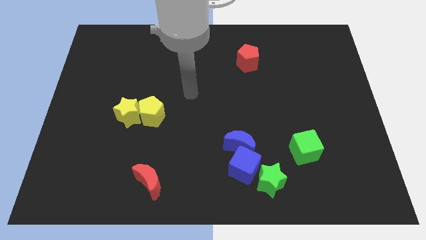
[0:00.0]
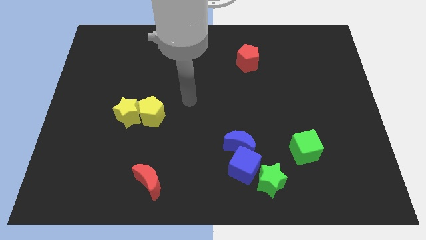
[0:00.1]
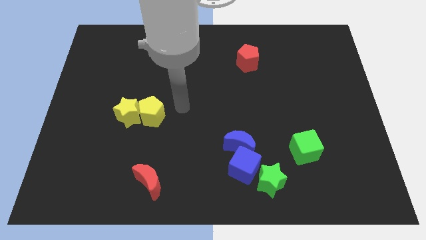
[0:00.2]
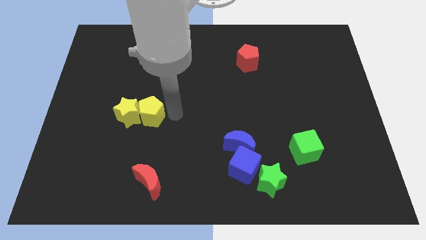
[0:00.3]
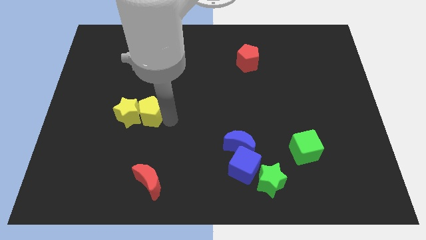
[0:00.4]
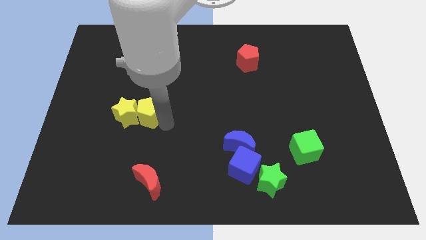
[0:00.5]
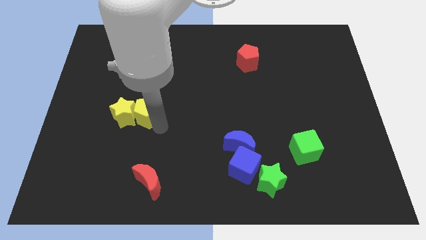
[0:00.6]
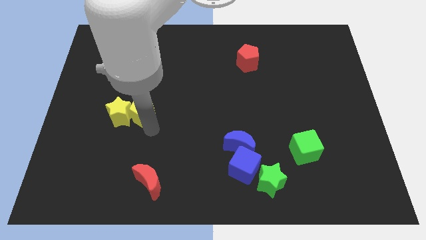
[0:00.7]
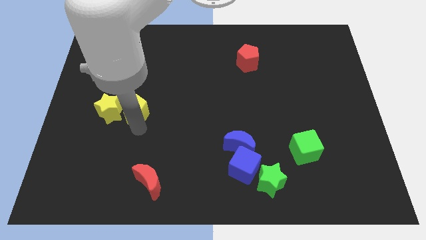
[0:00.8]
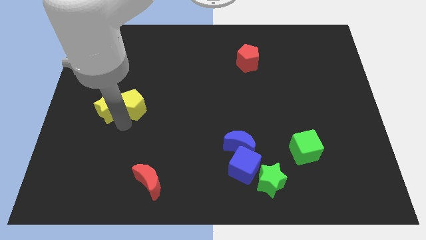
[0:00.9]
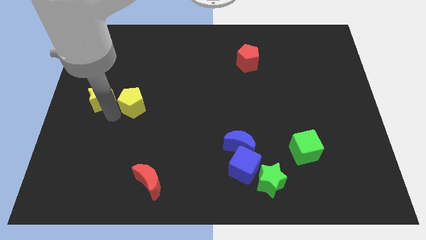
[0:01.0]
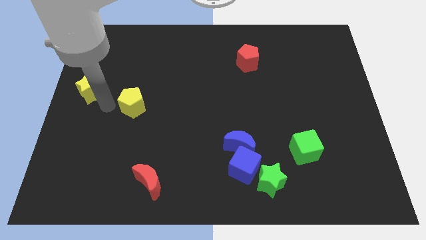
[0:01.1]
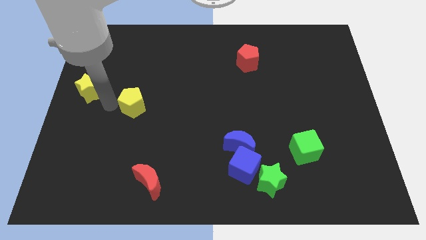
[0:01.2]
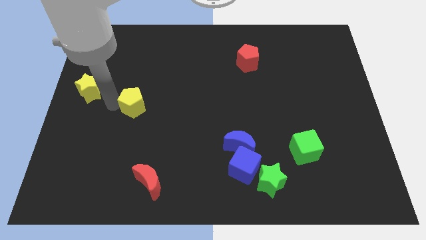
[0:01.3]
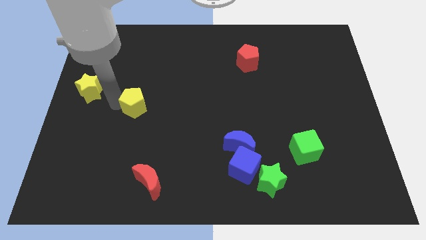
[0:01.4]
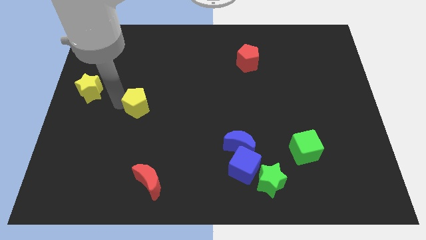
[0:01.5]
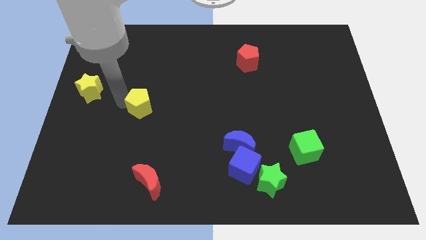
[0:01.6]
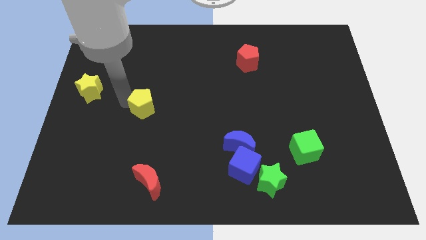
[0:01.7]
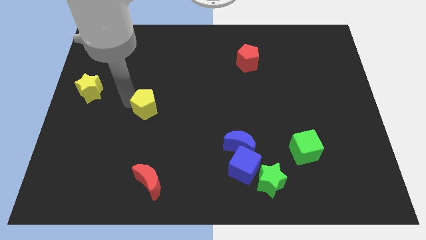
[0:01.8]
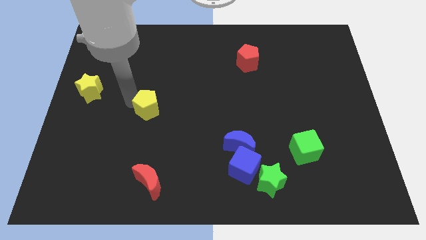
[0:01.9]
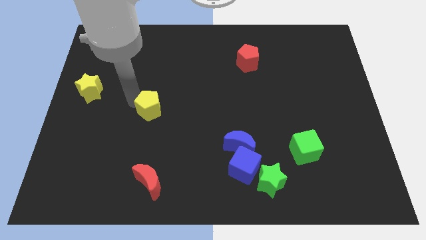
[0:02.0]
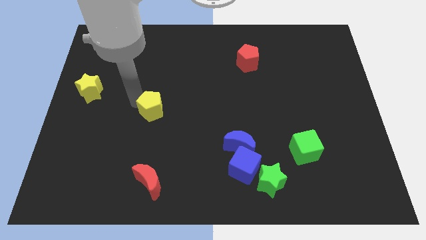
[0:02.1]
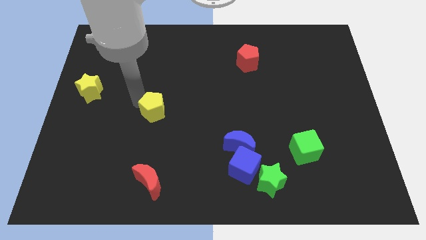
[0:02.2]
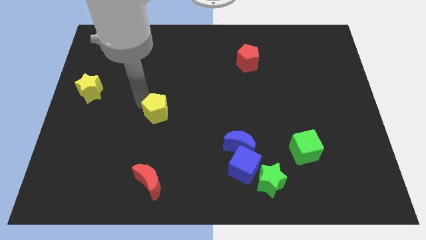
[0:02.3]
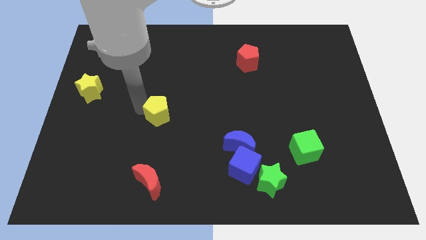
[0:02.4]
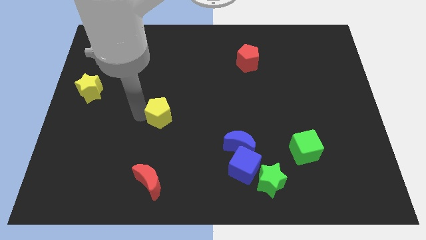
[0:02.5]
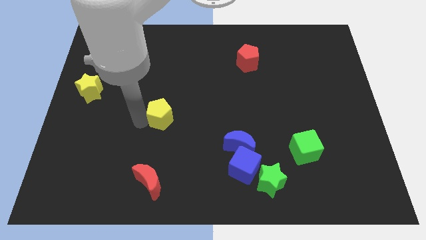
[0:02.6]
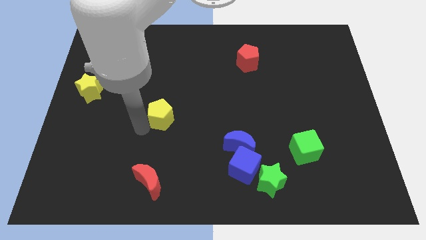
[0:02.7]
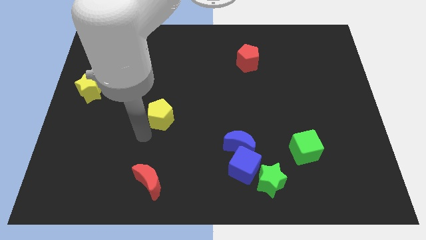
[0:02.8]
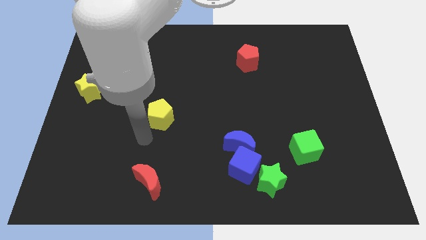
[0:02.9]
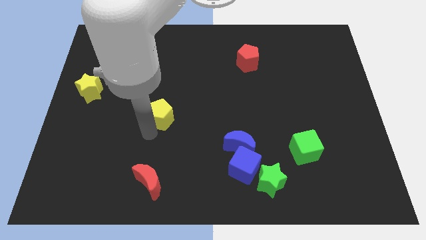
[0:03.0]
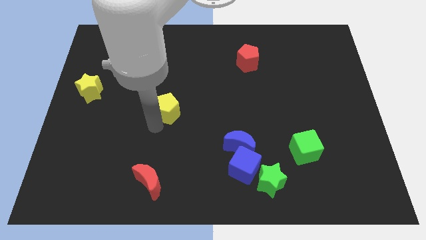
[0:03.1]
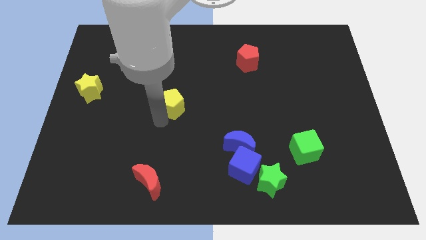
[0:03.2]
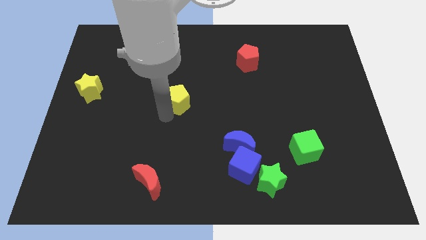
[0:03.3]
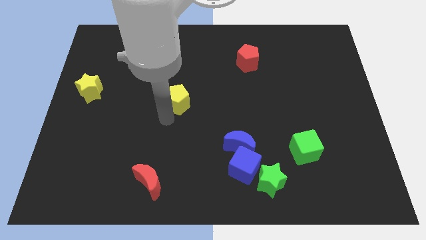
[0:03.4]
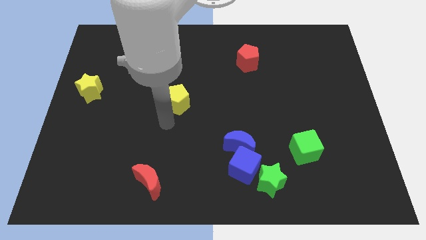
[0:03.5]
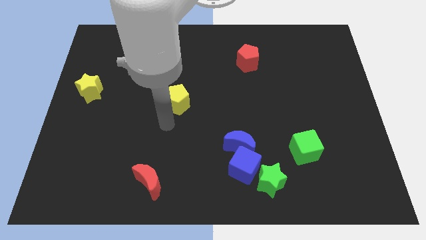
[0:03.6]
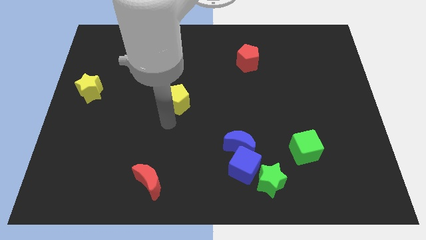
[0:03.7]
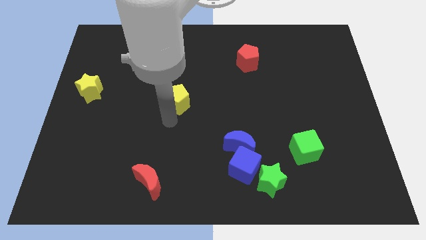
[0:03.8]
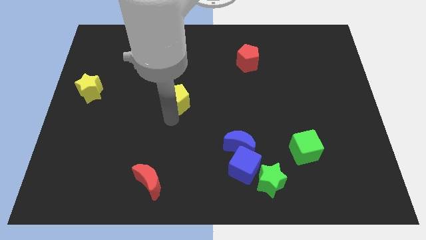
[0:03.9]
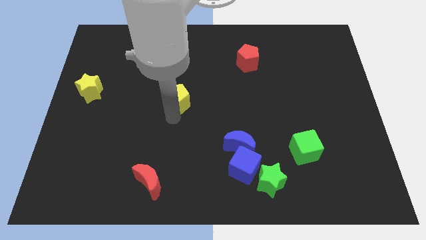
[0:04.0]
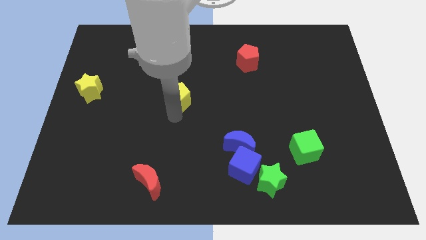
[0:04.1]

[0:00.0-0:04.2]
push the yellow pentagon slightly up and right

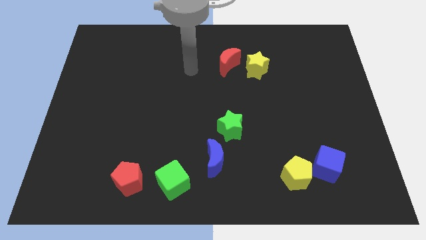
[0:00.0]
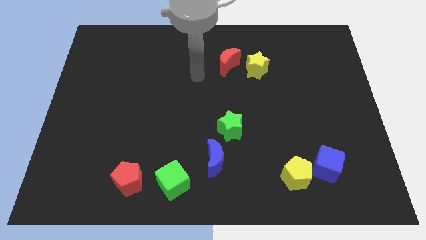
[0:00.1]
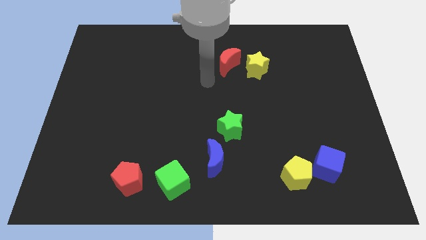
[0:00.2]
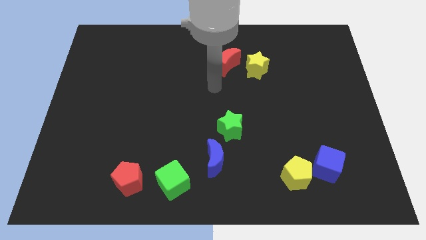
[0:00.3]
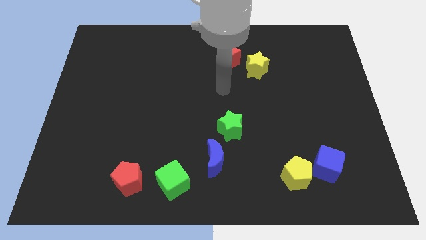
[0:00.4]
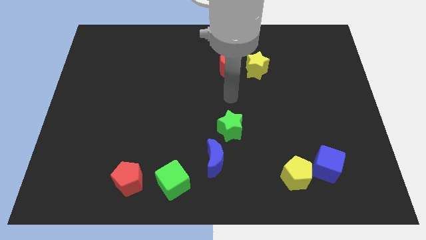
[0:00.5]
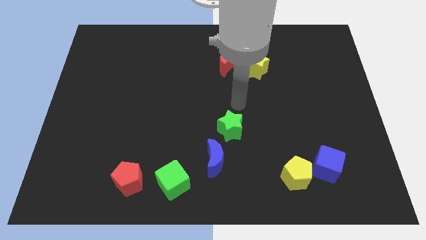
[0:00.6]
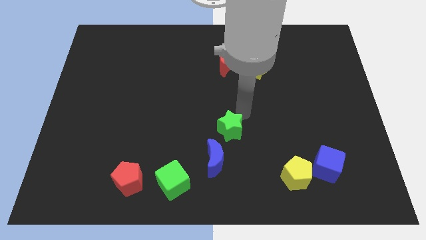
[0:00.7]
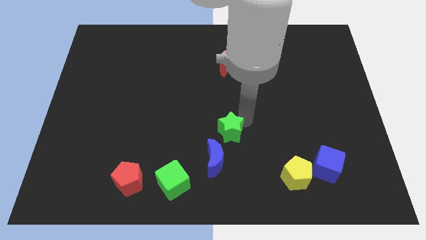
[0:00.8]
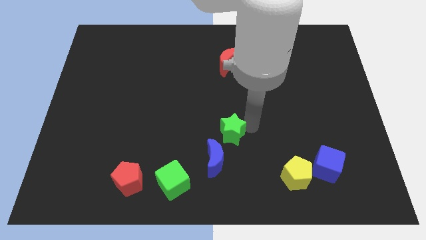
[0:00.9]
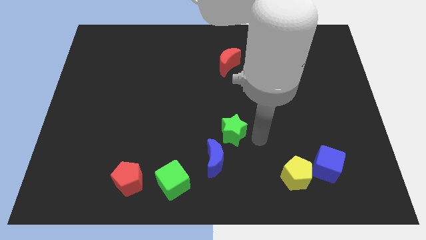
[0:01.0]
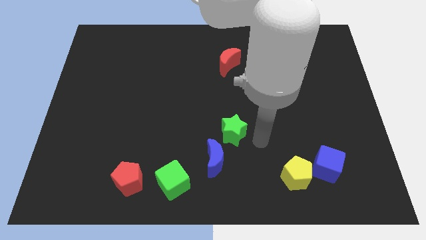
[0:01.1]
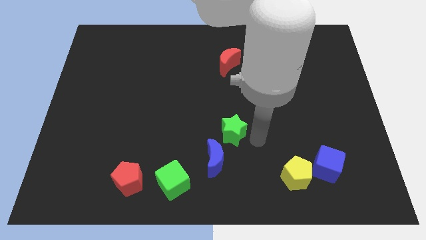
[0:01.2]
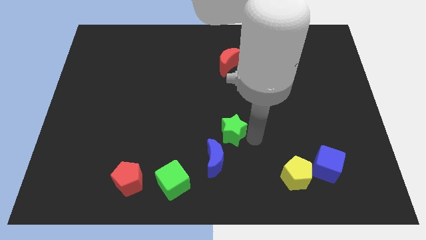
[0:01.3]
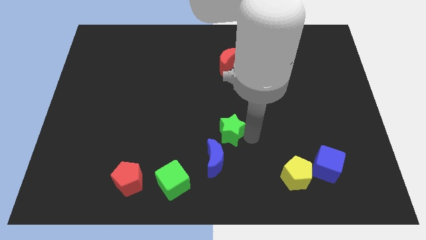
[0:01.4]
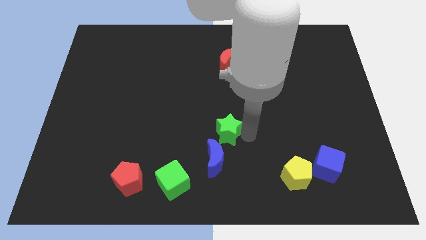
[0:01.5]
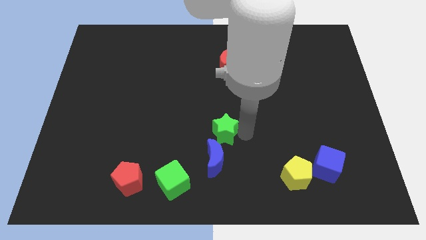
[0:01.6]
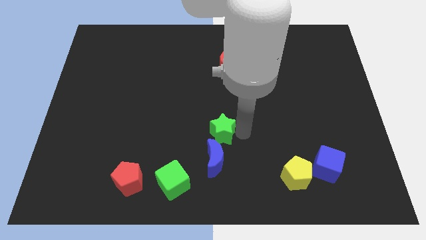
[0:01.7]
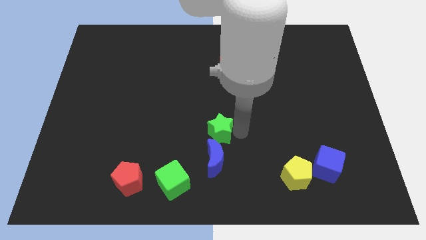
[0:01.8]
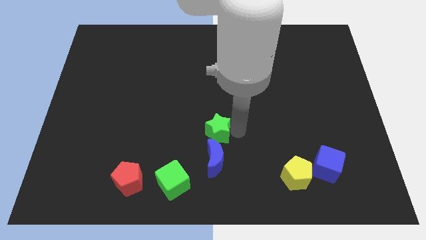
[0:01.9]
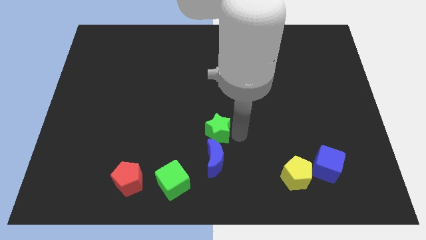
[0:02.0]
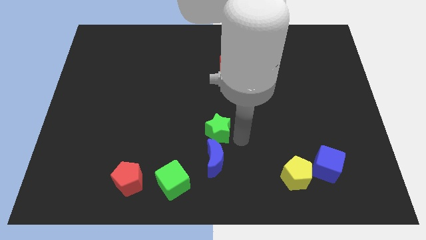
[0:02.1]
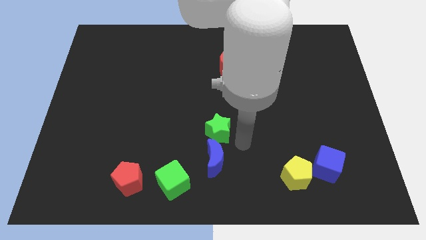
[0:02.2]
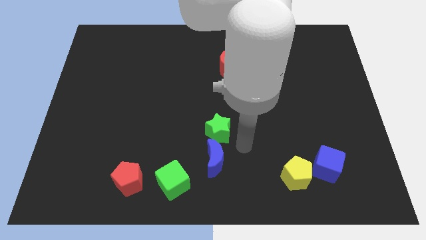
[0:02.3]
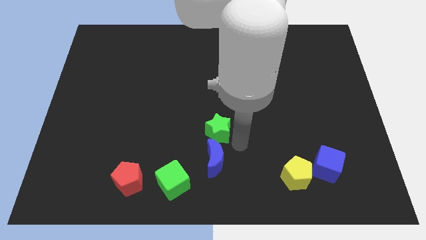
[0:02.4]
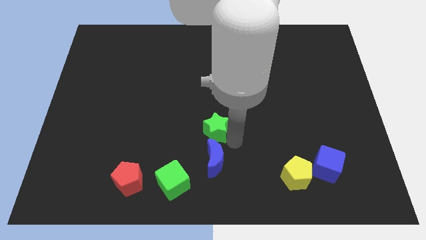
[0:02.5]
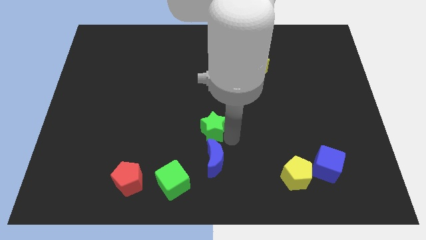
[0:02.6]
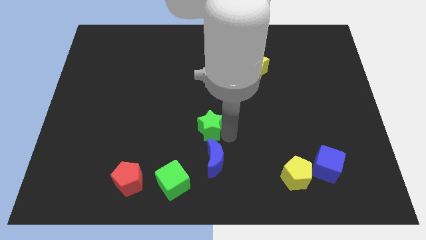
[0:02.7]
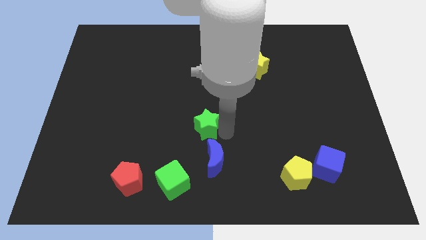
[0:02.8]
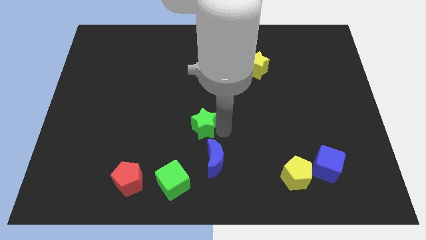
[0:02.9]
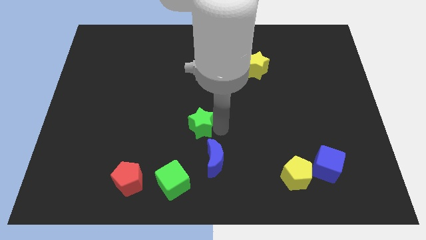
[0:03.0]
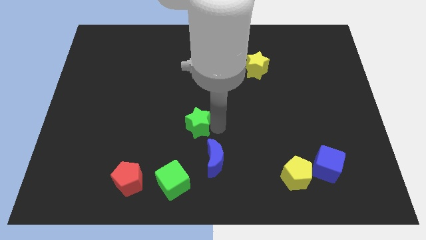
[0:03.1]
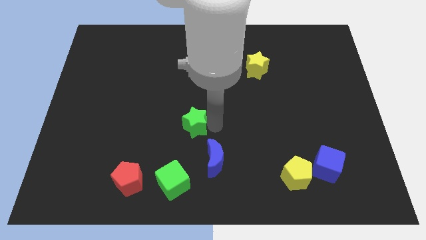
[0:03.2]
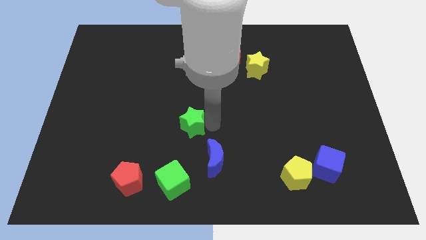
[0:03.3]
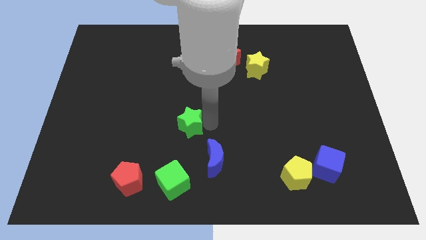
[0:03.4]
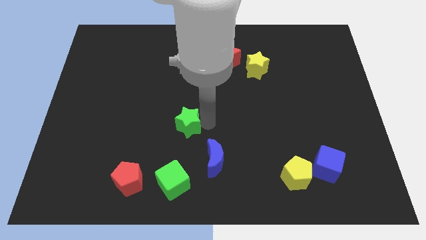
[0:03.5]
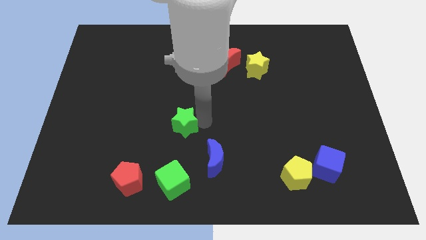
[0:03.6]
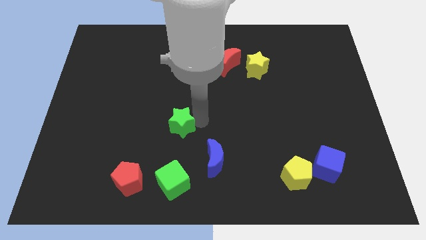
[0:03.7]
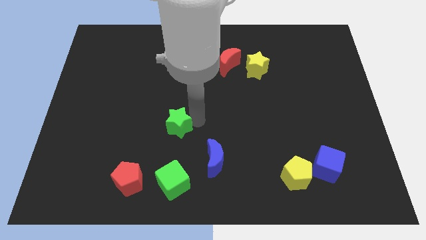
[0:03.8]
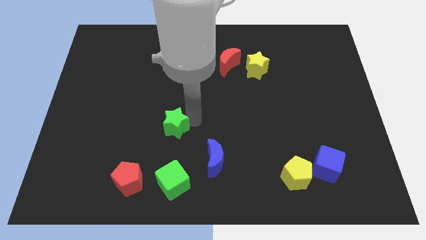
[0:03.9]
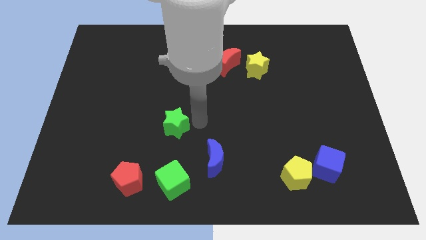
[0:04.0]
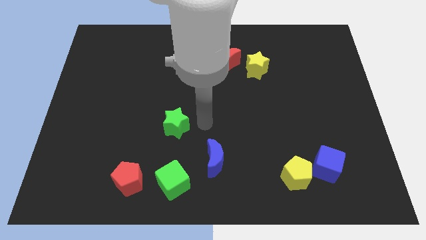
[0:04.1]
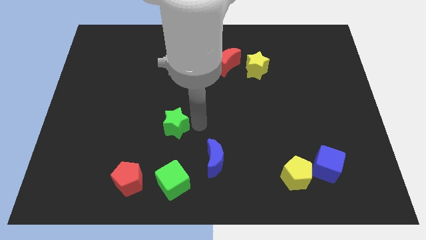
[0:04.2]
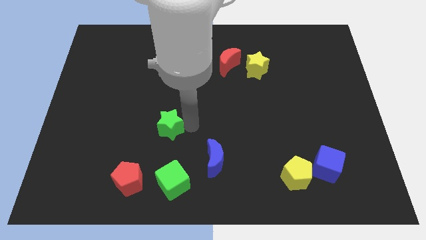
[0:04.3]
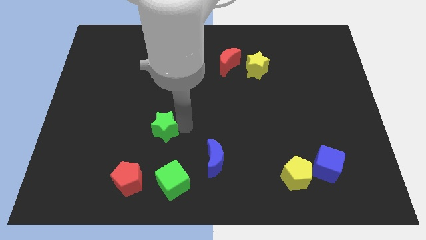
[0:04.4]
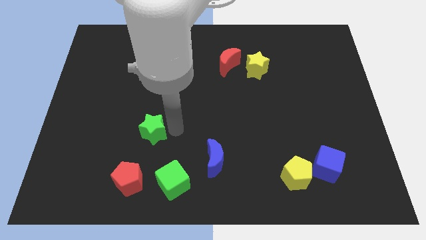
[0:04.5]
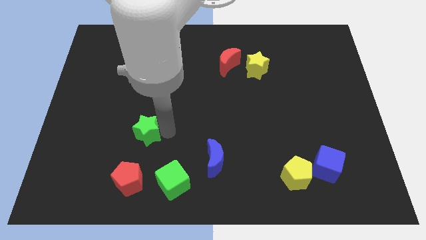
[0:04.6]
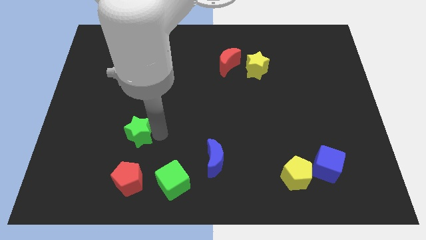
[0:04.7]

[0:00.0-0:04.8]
move the green star left
